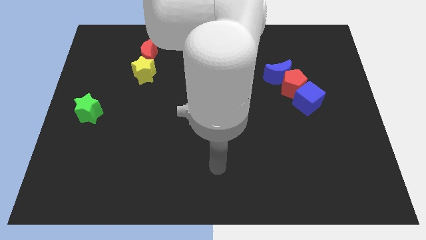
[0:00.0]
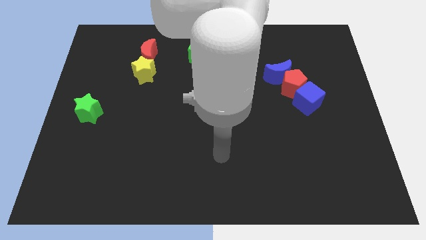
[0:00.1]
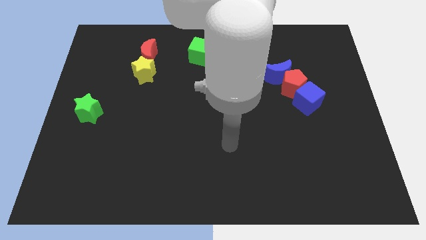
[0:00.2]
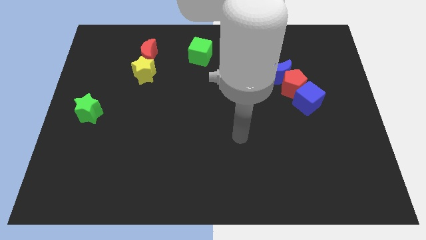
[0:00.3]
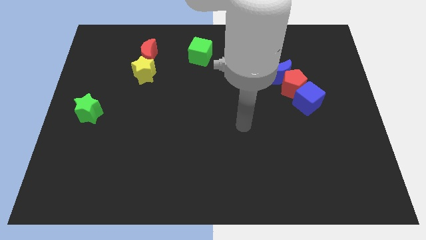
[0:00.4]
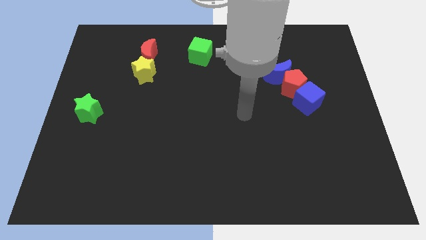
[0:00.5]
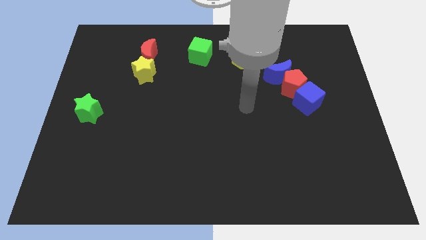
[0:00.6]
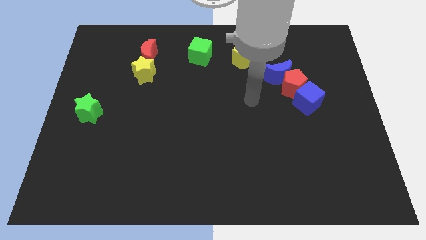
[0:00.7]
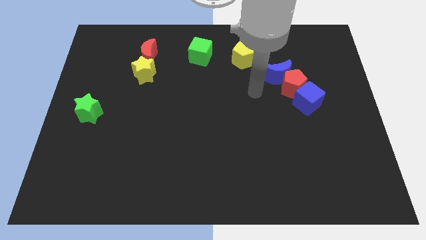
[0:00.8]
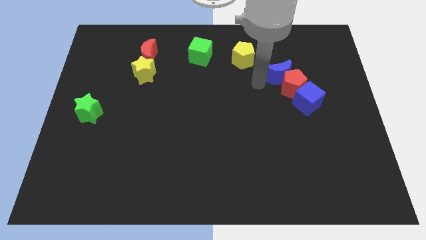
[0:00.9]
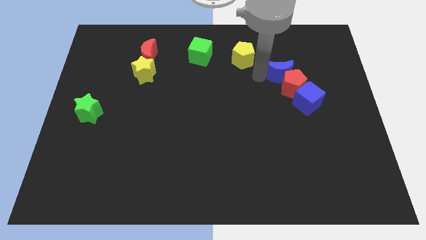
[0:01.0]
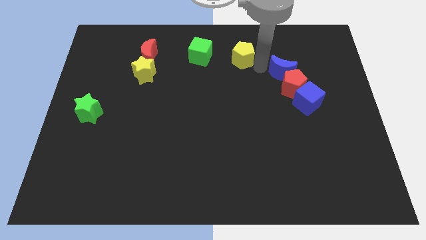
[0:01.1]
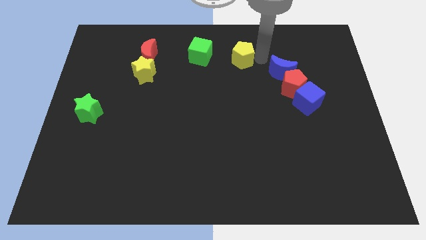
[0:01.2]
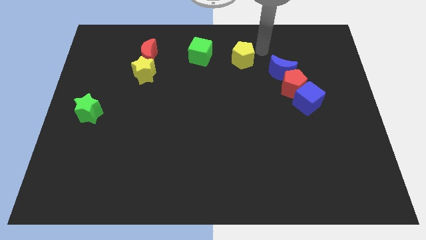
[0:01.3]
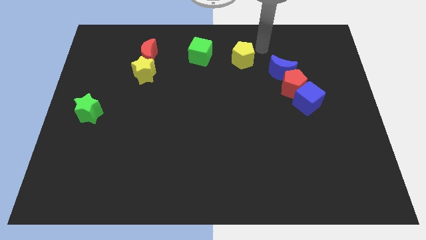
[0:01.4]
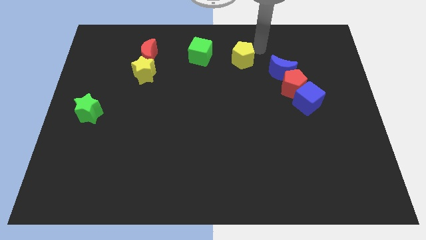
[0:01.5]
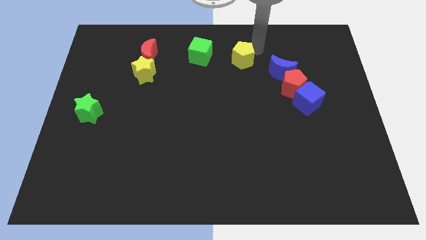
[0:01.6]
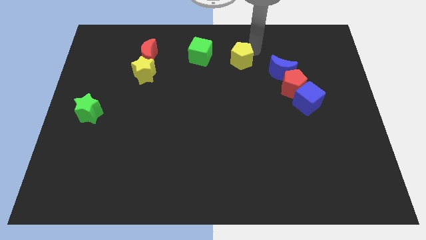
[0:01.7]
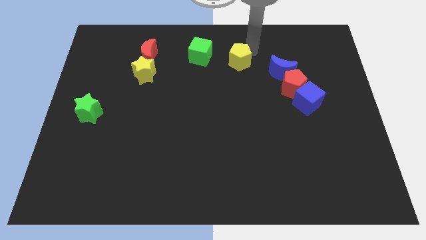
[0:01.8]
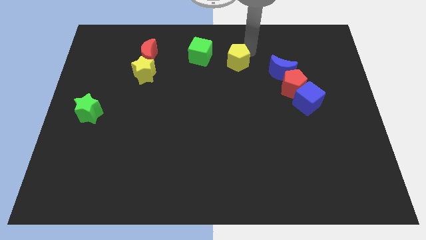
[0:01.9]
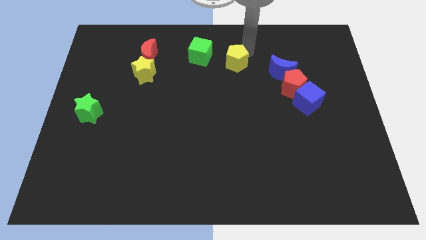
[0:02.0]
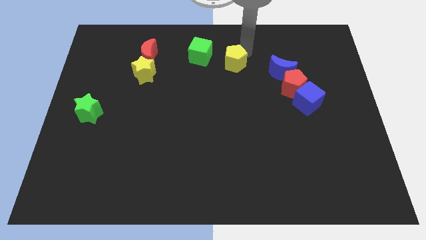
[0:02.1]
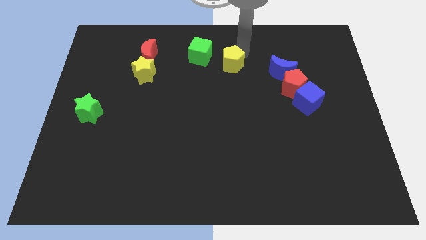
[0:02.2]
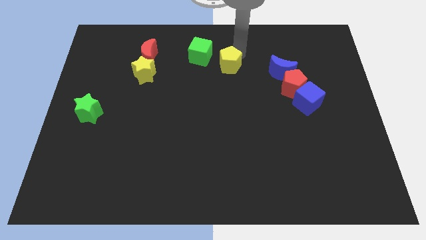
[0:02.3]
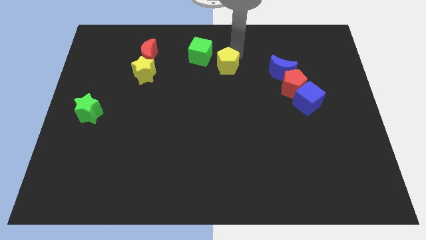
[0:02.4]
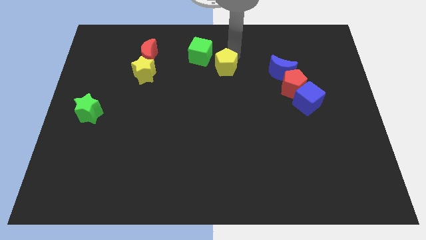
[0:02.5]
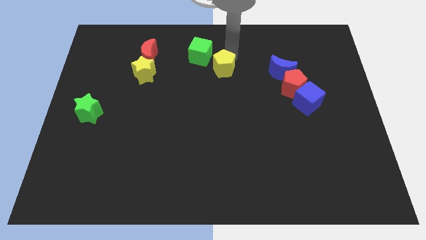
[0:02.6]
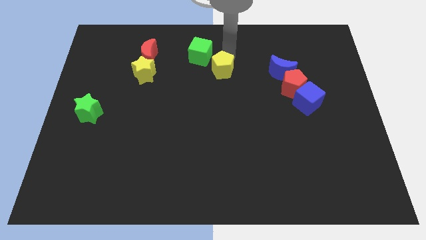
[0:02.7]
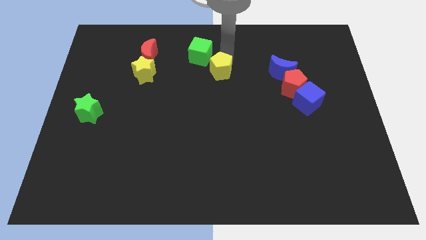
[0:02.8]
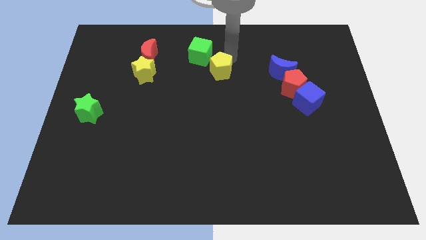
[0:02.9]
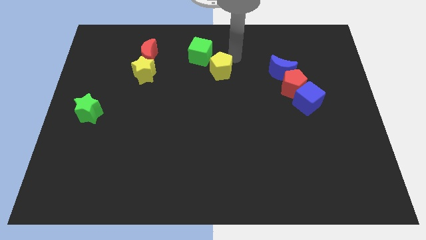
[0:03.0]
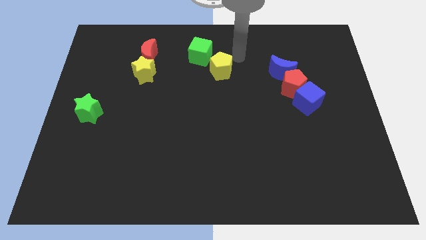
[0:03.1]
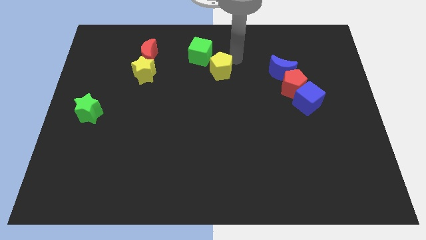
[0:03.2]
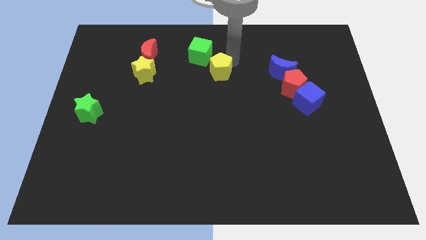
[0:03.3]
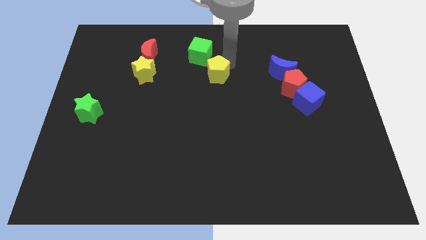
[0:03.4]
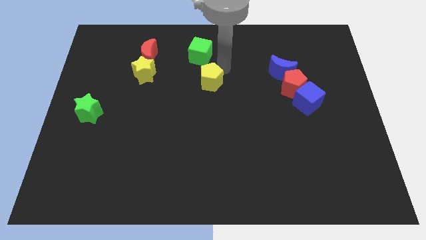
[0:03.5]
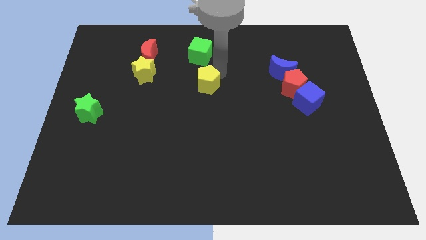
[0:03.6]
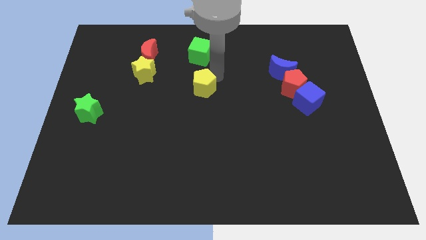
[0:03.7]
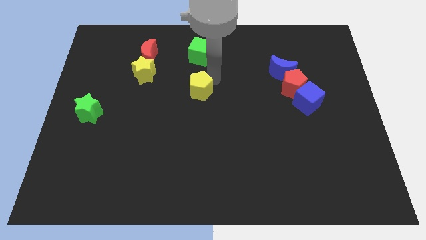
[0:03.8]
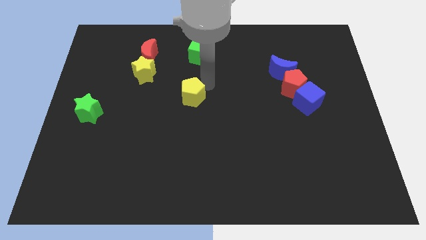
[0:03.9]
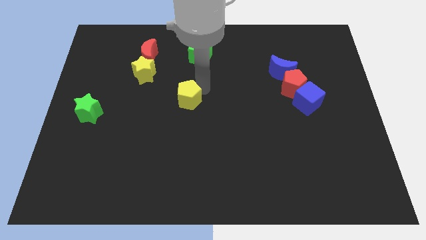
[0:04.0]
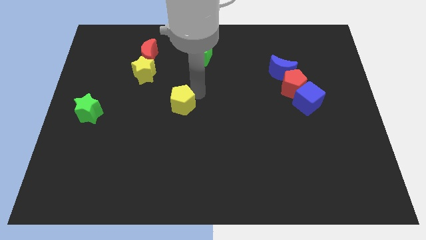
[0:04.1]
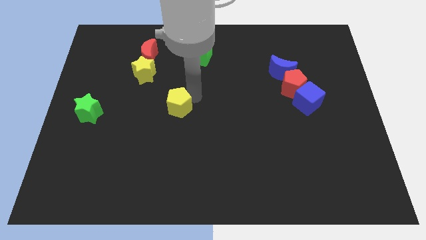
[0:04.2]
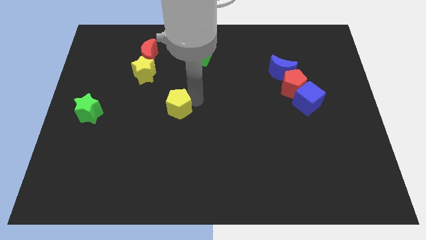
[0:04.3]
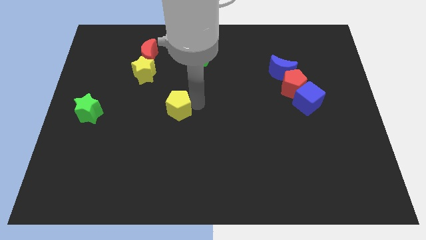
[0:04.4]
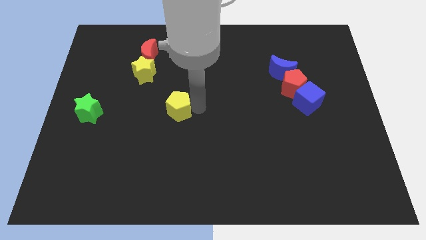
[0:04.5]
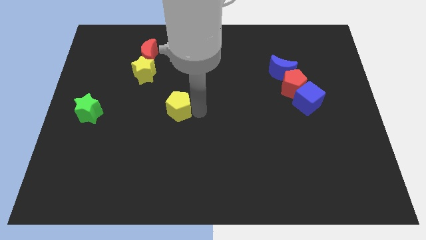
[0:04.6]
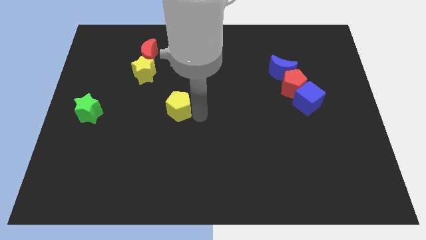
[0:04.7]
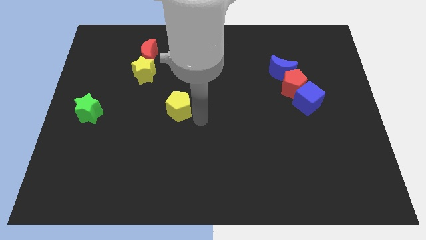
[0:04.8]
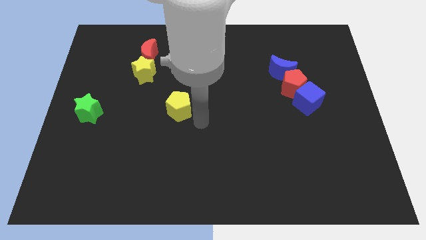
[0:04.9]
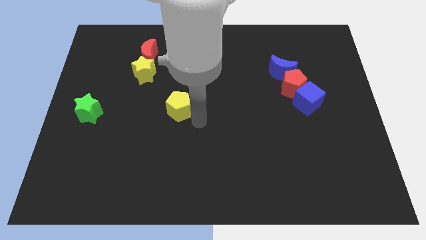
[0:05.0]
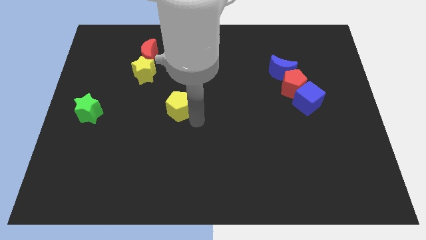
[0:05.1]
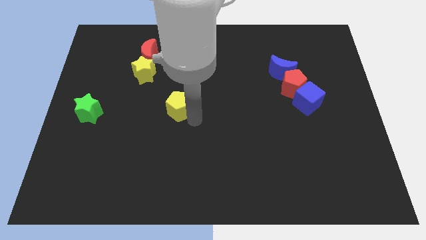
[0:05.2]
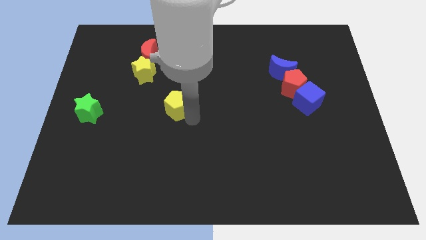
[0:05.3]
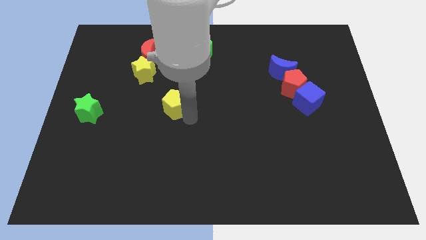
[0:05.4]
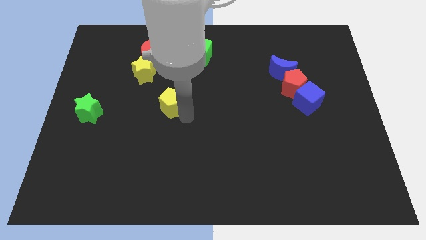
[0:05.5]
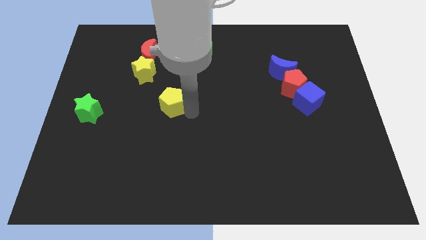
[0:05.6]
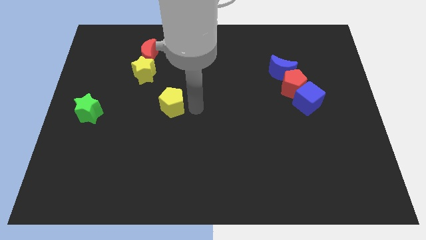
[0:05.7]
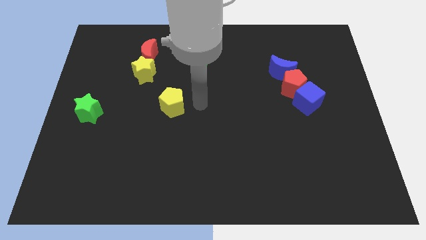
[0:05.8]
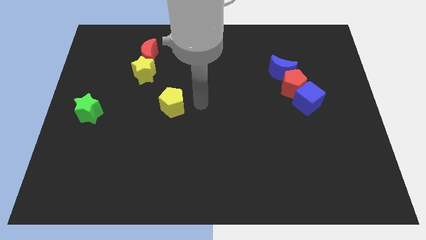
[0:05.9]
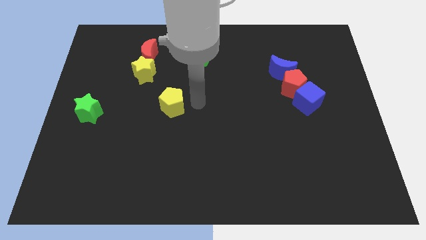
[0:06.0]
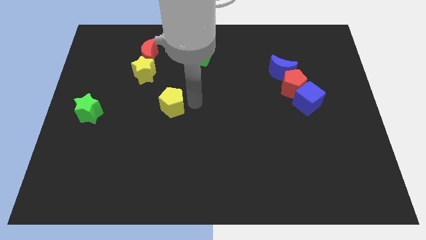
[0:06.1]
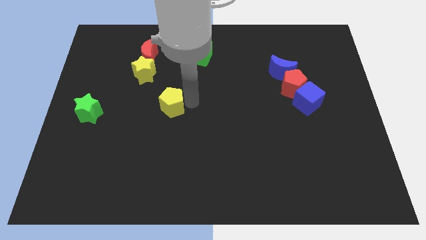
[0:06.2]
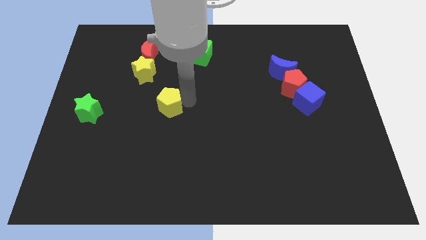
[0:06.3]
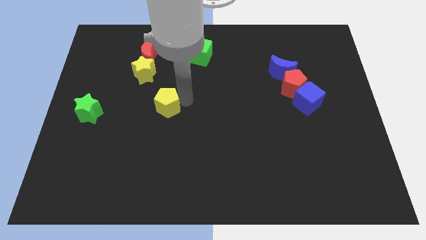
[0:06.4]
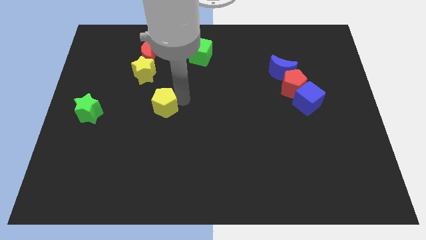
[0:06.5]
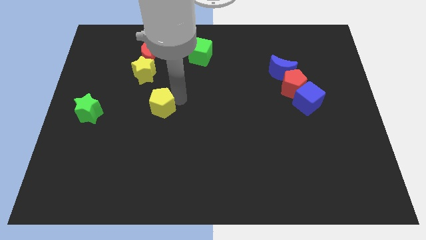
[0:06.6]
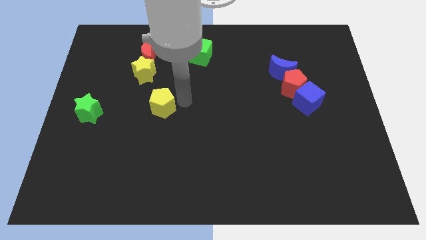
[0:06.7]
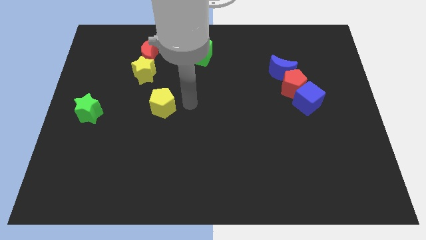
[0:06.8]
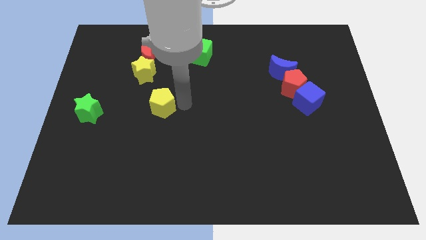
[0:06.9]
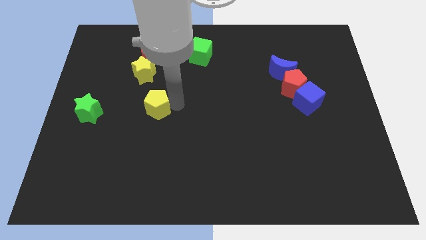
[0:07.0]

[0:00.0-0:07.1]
move the yellow pentagon below the yellow star

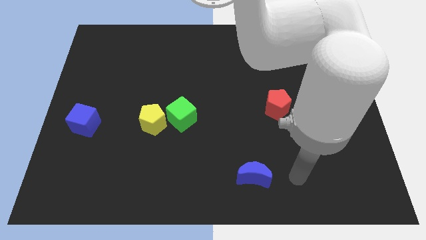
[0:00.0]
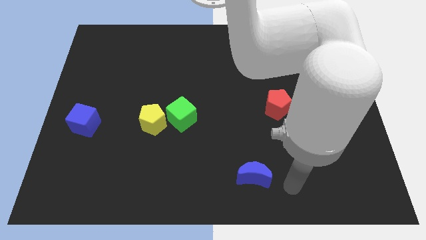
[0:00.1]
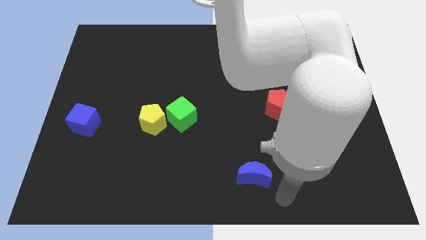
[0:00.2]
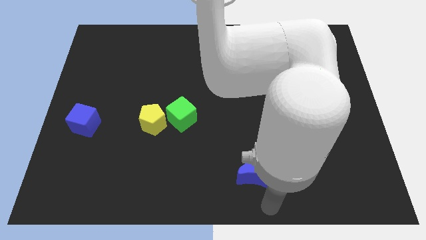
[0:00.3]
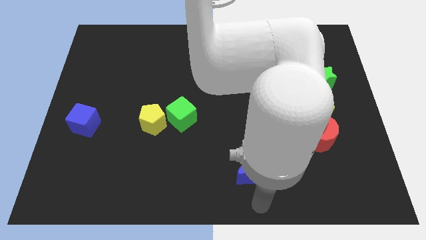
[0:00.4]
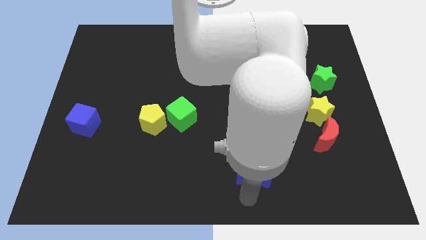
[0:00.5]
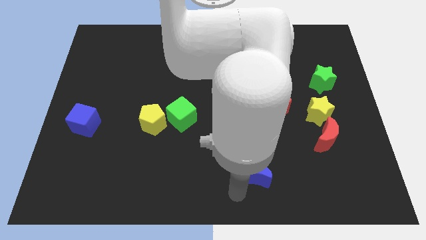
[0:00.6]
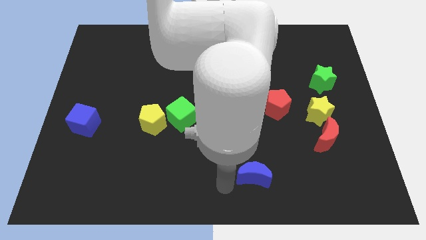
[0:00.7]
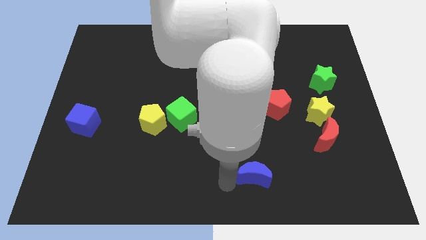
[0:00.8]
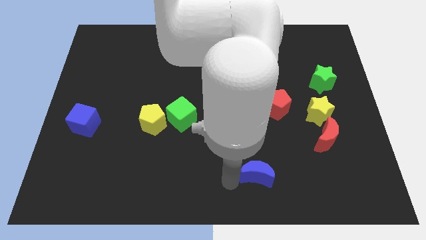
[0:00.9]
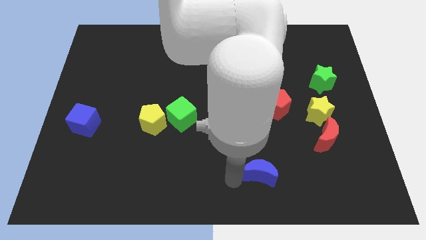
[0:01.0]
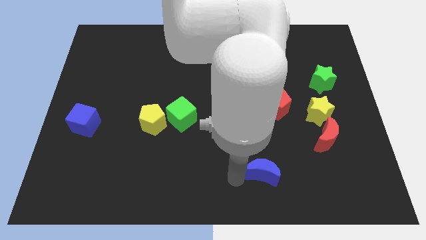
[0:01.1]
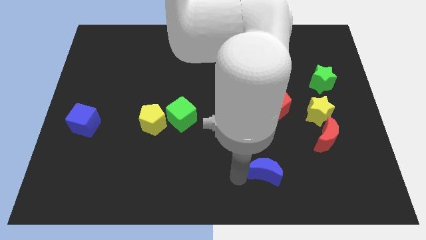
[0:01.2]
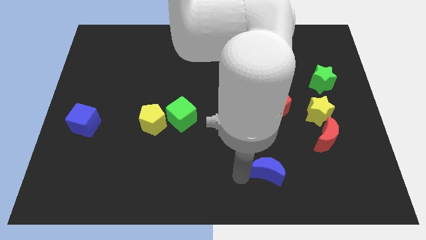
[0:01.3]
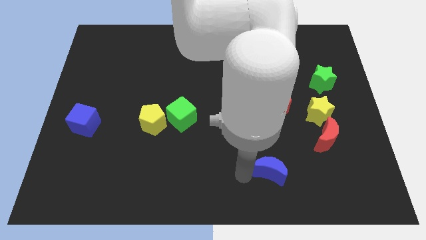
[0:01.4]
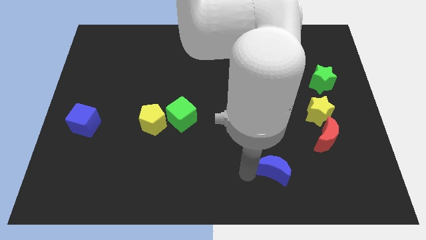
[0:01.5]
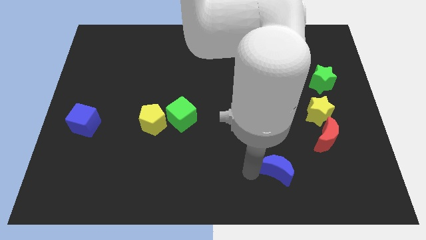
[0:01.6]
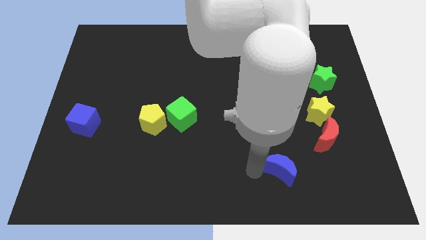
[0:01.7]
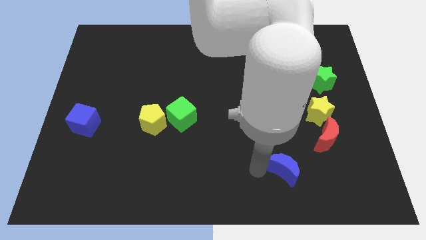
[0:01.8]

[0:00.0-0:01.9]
slide the blue moon to the bottom left side of the red moon
